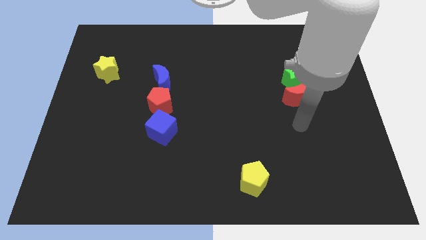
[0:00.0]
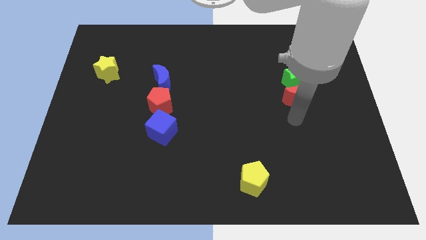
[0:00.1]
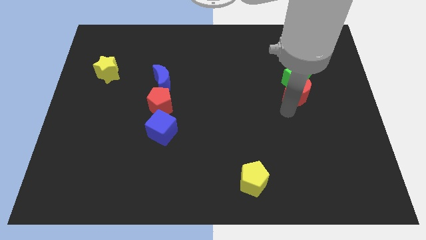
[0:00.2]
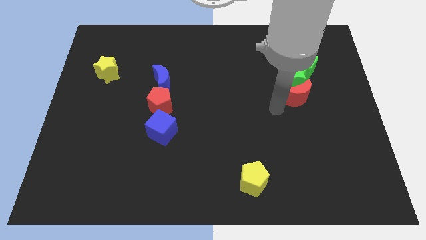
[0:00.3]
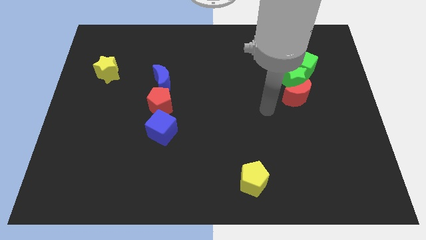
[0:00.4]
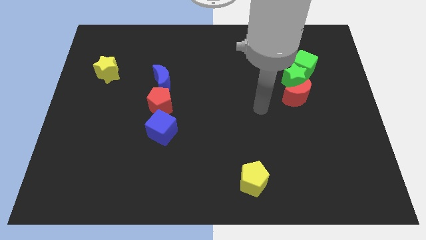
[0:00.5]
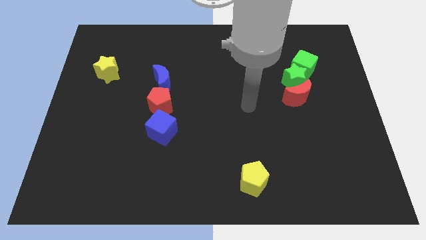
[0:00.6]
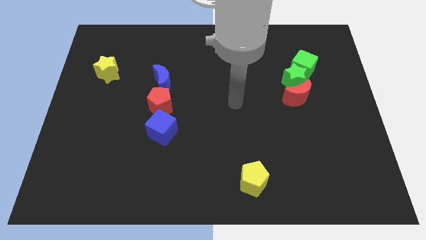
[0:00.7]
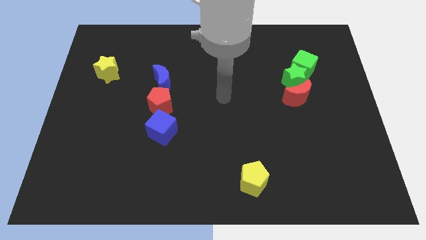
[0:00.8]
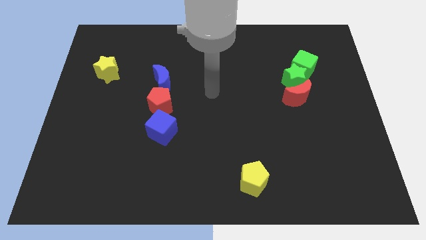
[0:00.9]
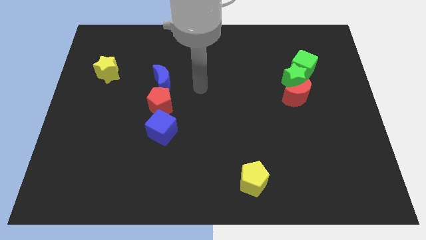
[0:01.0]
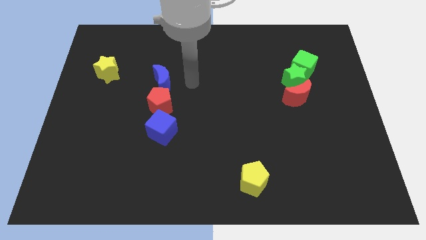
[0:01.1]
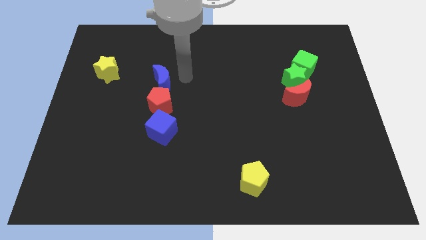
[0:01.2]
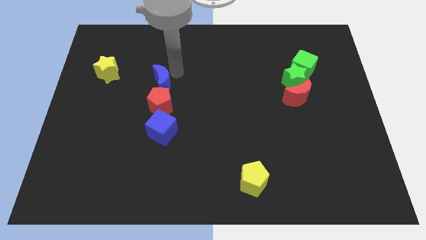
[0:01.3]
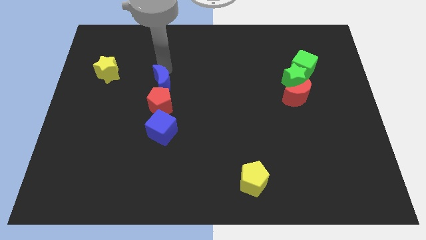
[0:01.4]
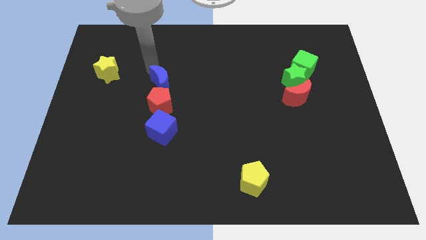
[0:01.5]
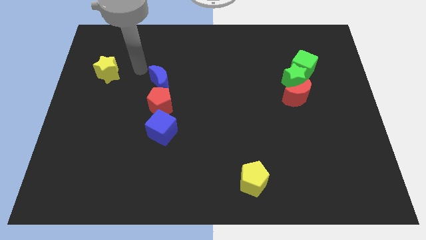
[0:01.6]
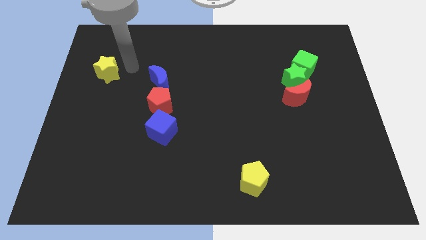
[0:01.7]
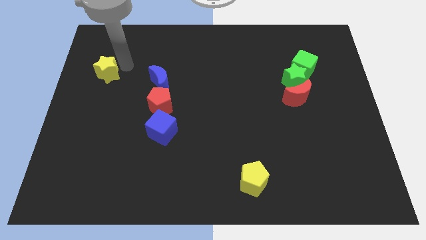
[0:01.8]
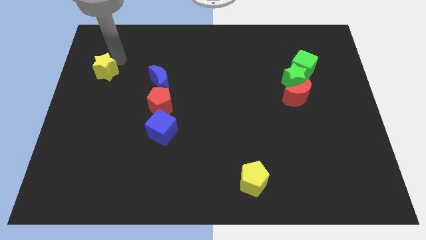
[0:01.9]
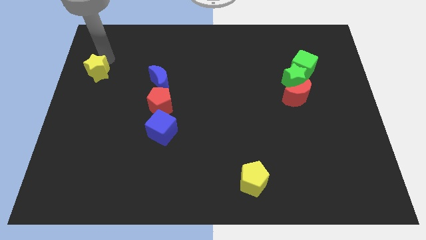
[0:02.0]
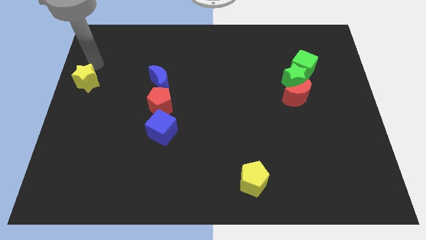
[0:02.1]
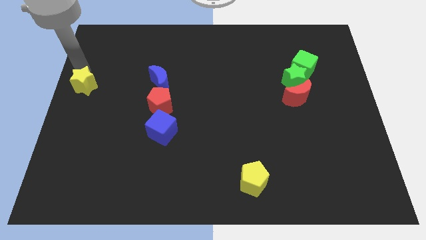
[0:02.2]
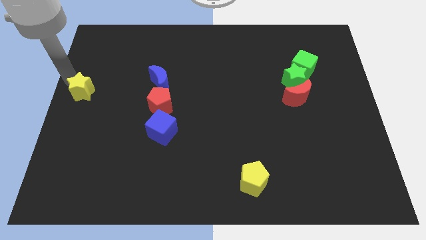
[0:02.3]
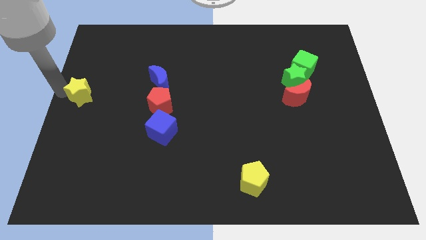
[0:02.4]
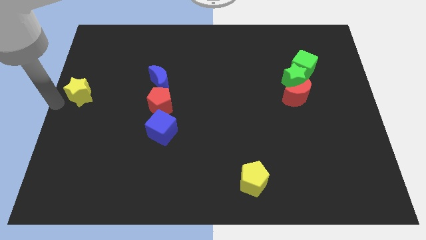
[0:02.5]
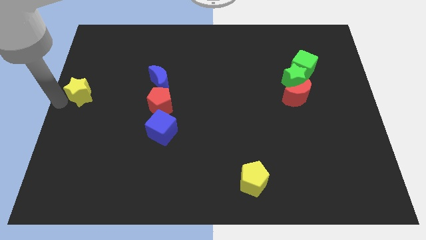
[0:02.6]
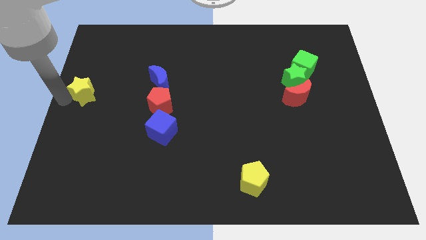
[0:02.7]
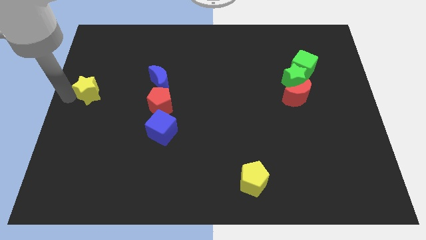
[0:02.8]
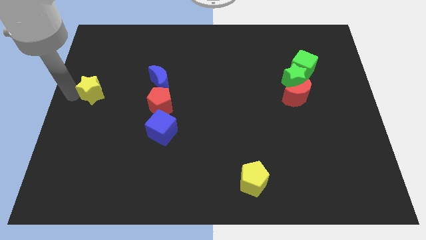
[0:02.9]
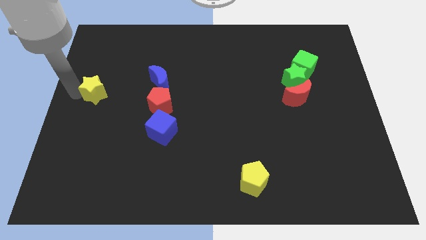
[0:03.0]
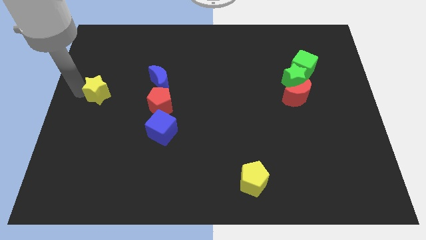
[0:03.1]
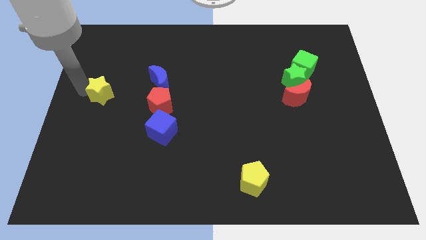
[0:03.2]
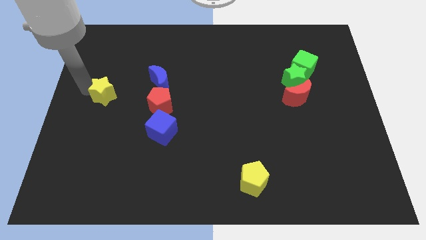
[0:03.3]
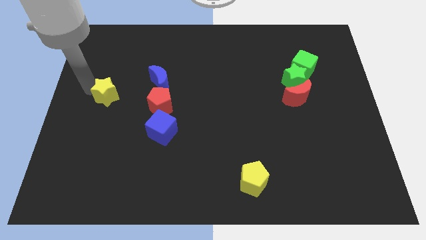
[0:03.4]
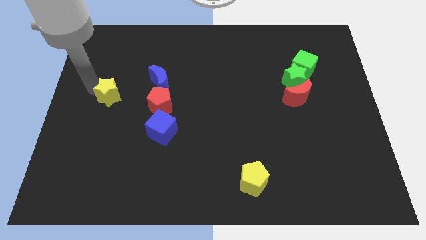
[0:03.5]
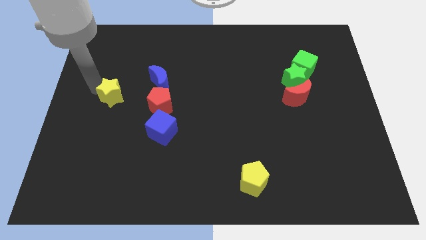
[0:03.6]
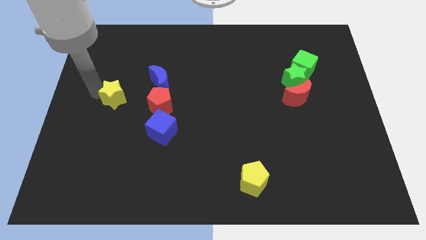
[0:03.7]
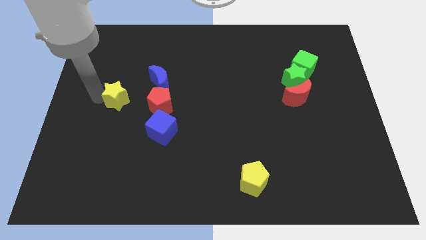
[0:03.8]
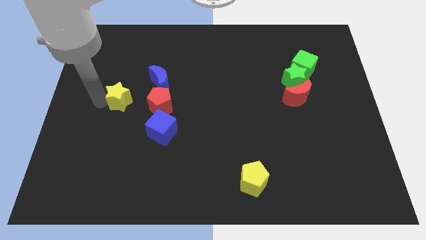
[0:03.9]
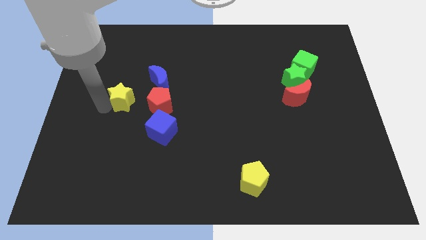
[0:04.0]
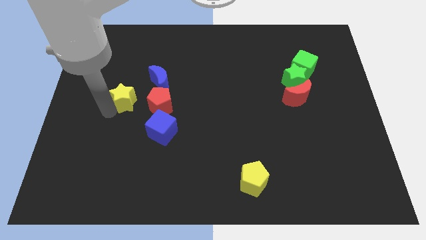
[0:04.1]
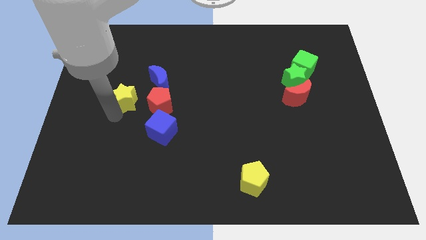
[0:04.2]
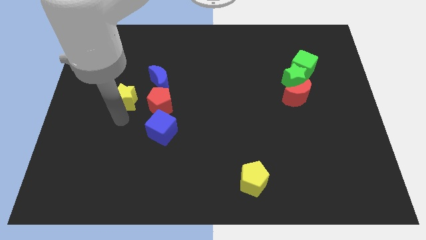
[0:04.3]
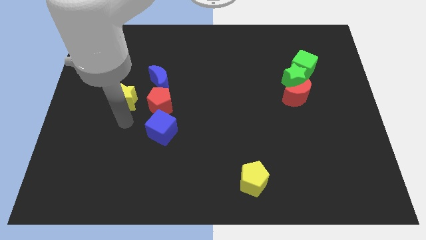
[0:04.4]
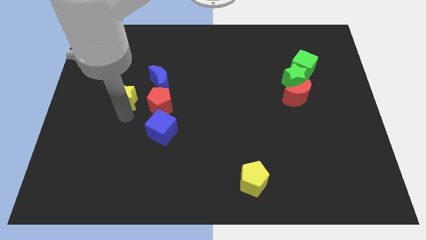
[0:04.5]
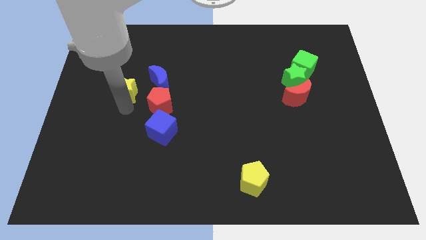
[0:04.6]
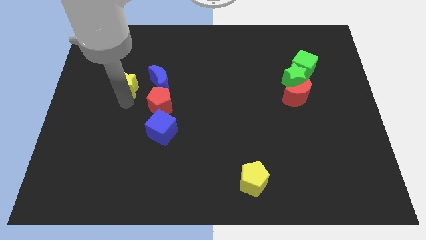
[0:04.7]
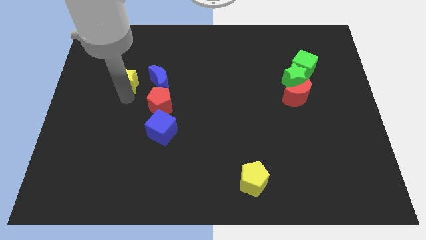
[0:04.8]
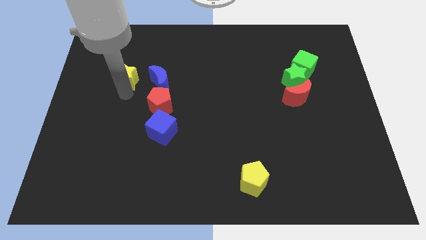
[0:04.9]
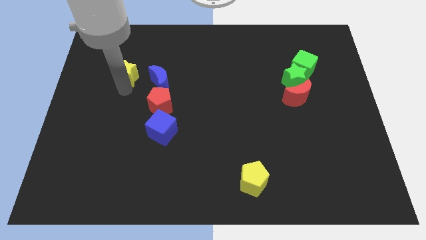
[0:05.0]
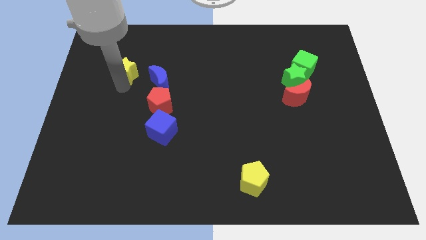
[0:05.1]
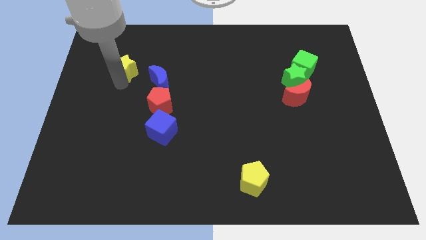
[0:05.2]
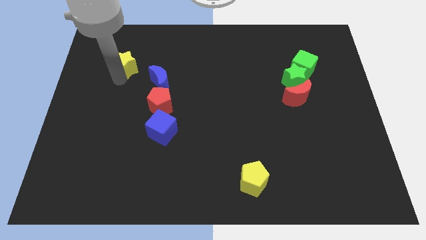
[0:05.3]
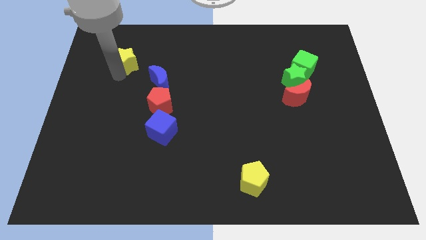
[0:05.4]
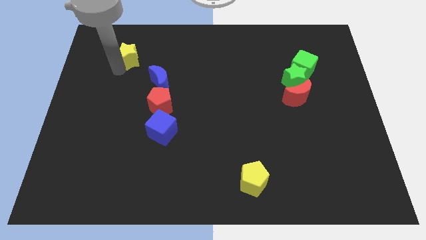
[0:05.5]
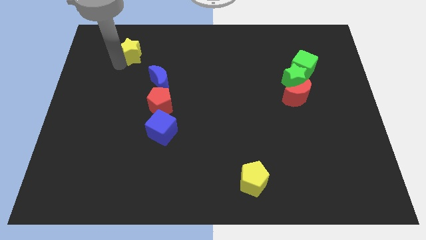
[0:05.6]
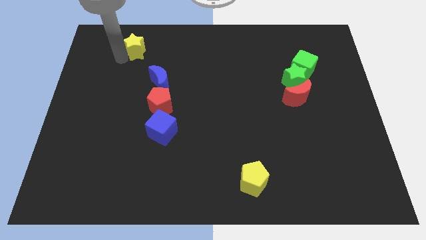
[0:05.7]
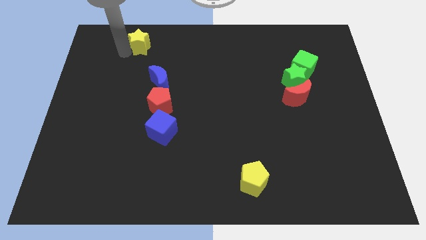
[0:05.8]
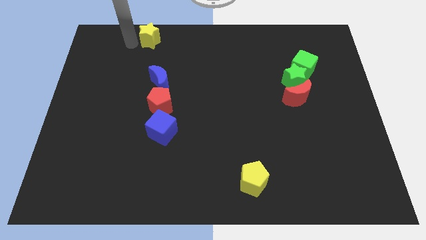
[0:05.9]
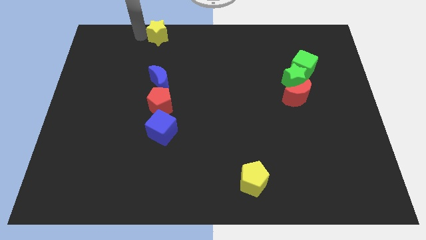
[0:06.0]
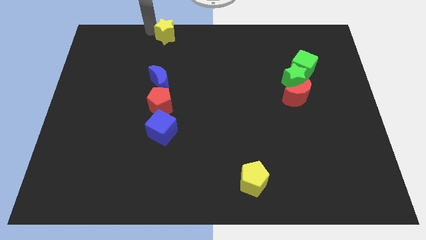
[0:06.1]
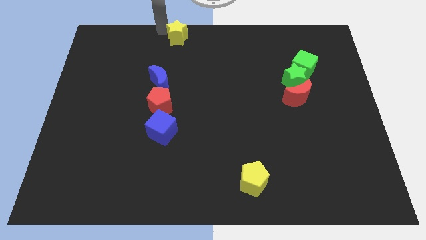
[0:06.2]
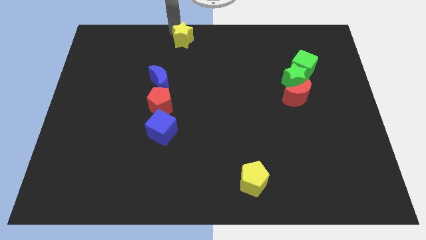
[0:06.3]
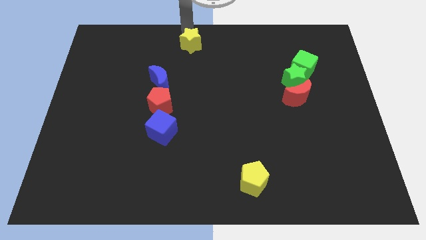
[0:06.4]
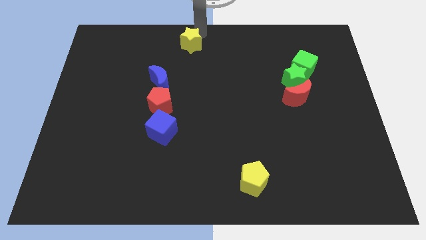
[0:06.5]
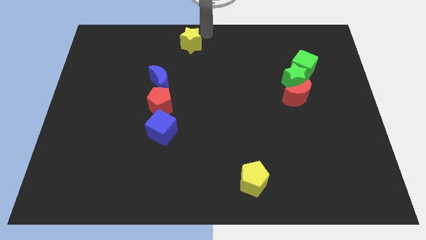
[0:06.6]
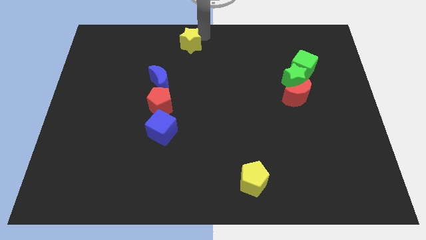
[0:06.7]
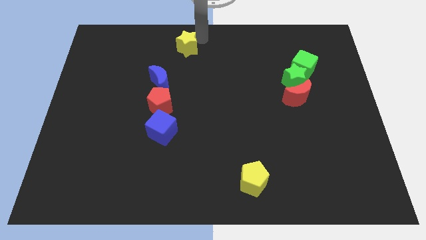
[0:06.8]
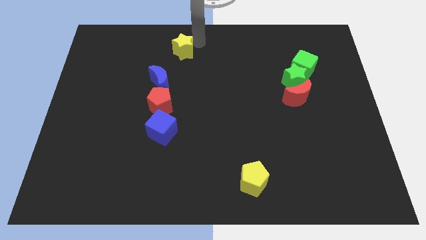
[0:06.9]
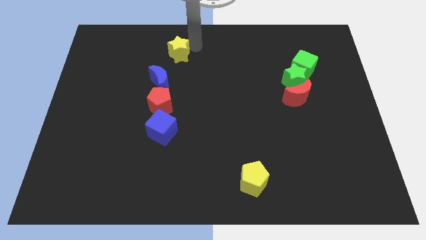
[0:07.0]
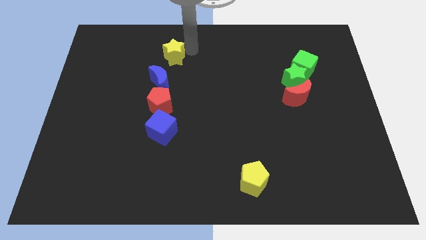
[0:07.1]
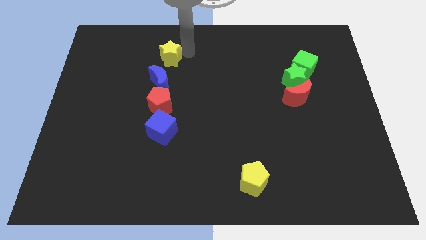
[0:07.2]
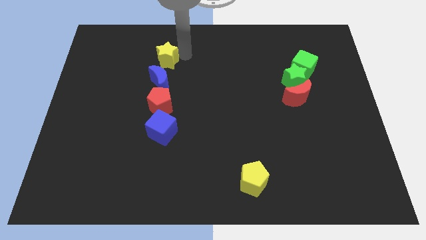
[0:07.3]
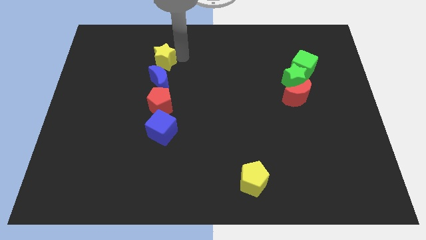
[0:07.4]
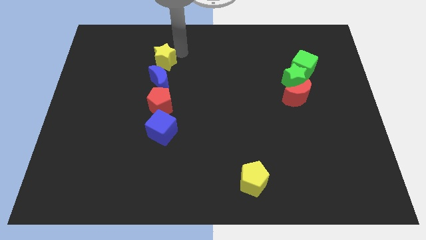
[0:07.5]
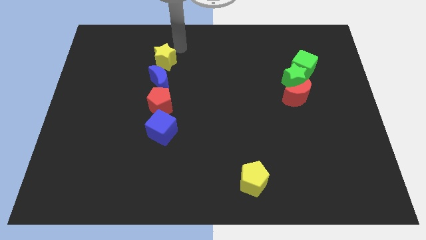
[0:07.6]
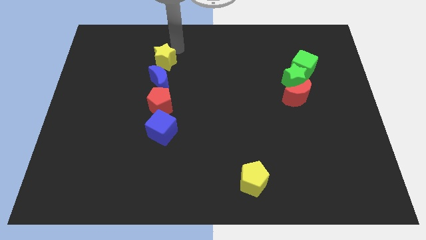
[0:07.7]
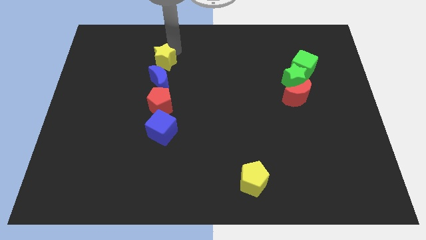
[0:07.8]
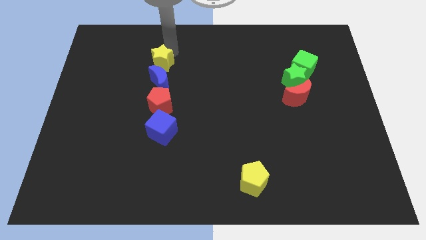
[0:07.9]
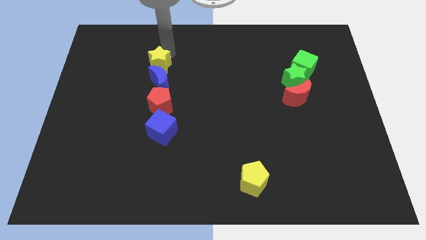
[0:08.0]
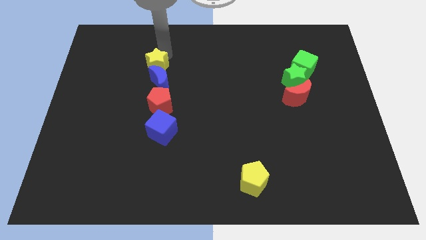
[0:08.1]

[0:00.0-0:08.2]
put the yellow star towards the blue moon
